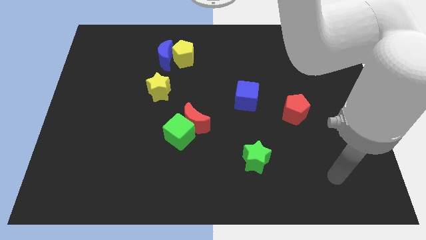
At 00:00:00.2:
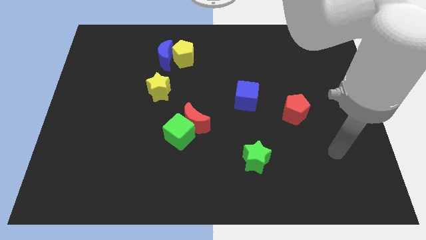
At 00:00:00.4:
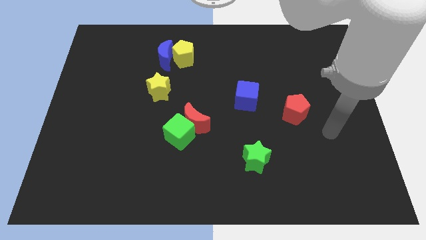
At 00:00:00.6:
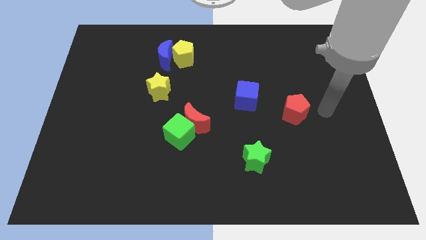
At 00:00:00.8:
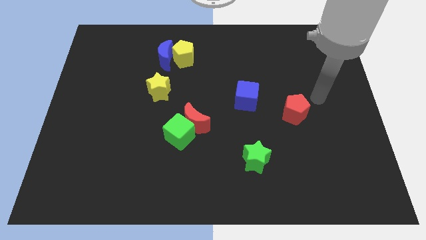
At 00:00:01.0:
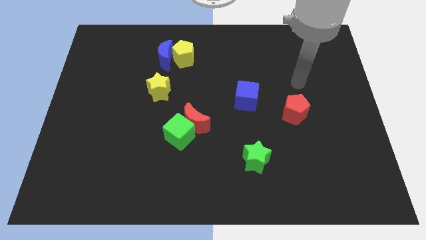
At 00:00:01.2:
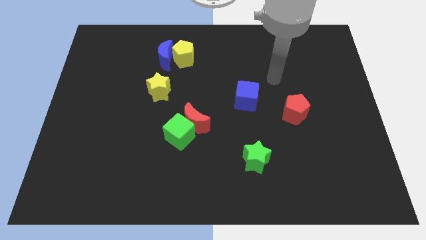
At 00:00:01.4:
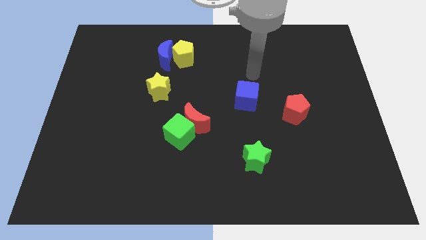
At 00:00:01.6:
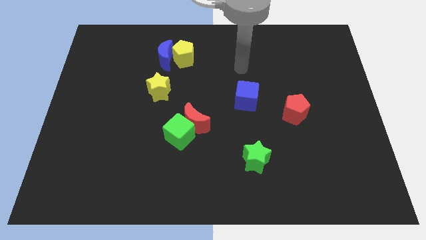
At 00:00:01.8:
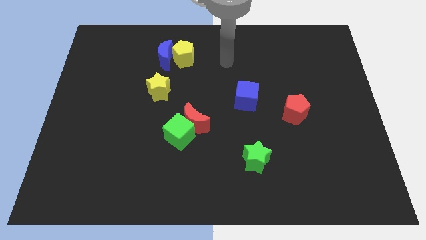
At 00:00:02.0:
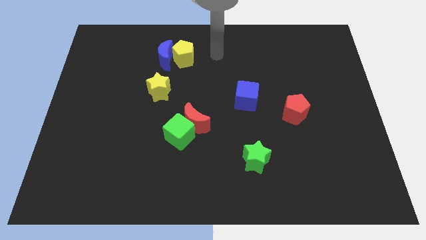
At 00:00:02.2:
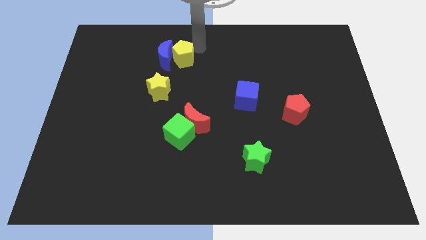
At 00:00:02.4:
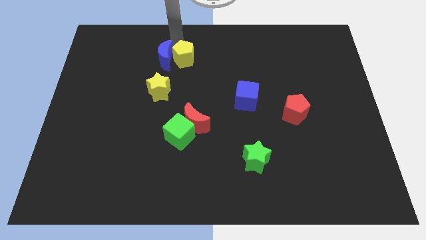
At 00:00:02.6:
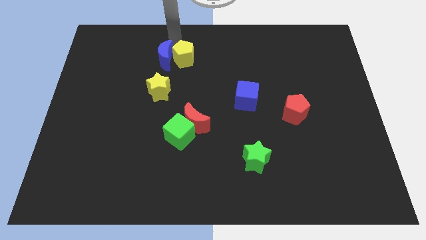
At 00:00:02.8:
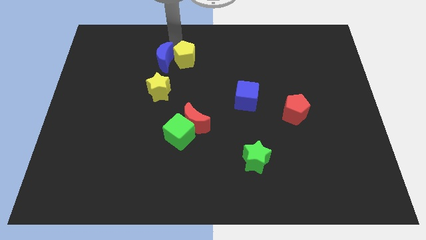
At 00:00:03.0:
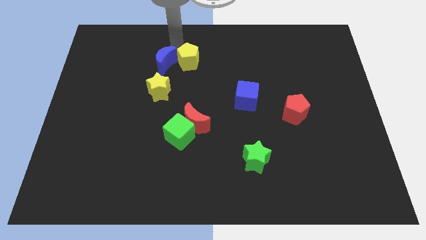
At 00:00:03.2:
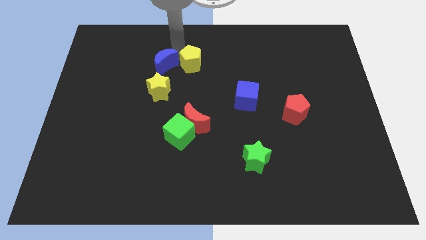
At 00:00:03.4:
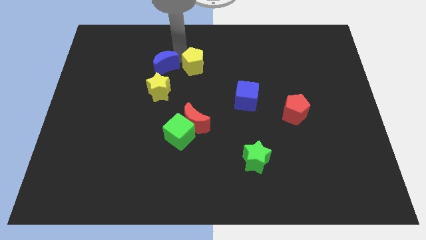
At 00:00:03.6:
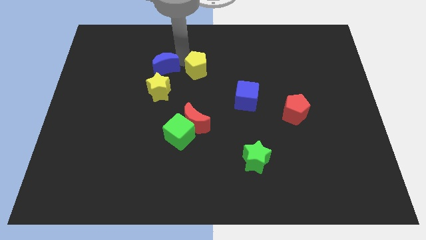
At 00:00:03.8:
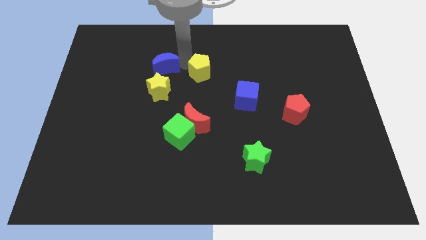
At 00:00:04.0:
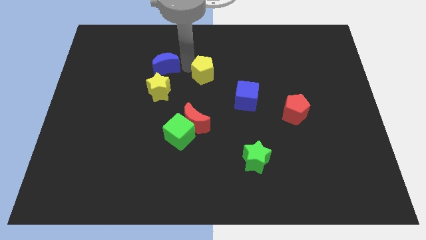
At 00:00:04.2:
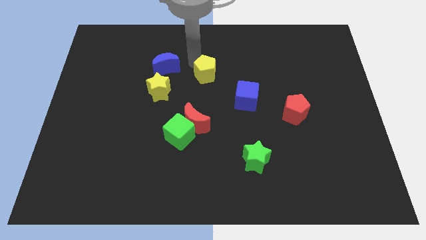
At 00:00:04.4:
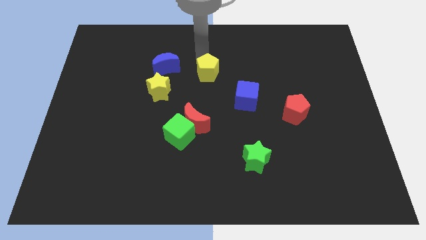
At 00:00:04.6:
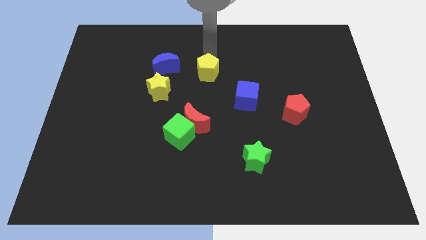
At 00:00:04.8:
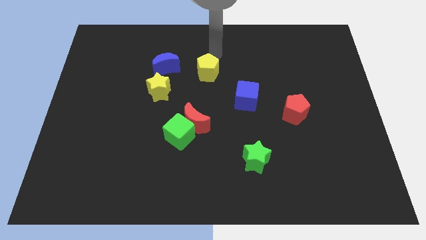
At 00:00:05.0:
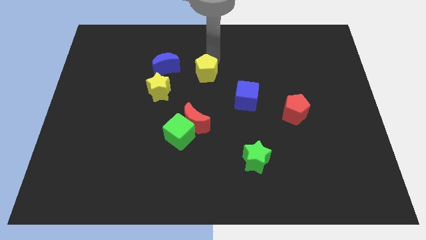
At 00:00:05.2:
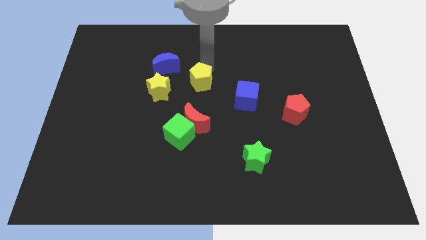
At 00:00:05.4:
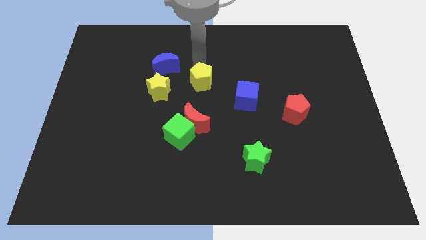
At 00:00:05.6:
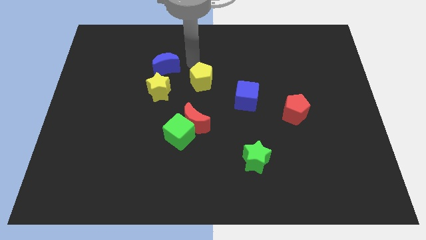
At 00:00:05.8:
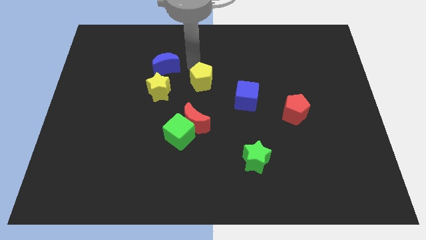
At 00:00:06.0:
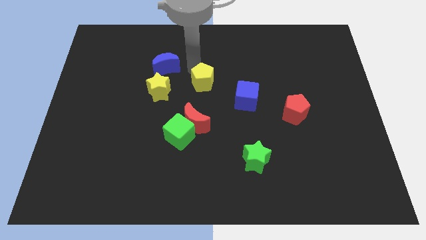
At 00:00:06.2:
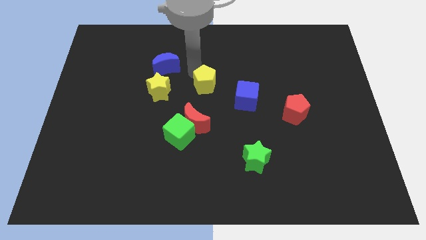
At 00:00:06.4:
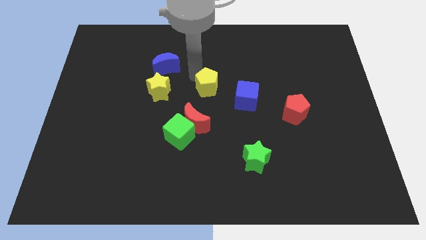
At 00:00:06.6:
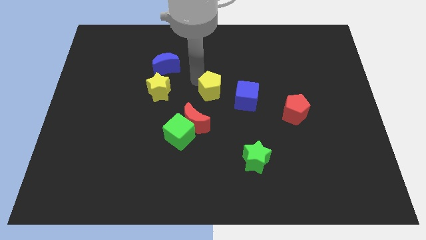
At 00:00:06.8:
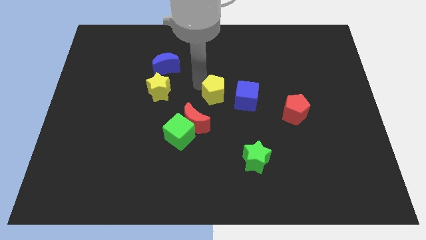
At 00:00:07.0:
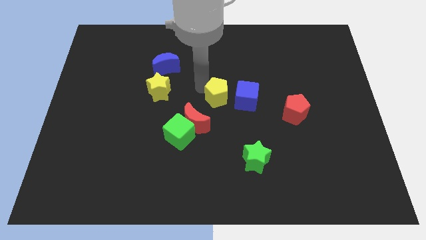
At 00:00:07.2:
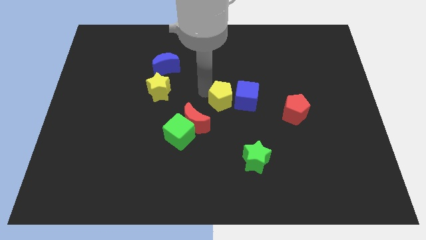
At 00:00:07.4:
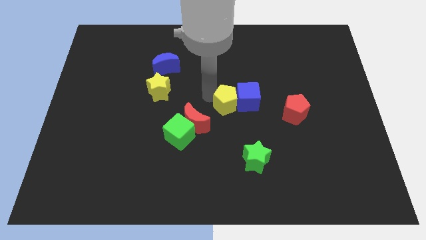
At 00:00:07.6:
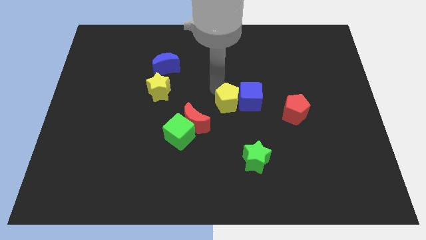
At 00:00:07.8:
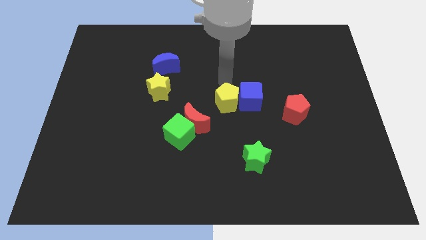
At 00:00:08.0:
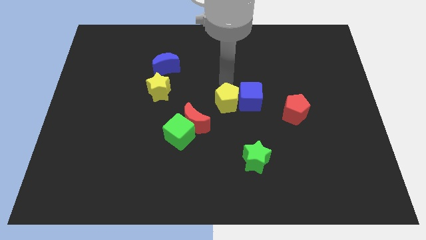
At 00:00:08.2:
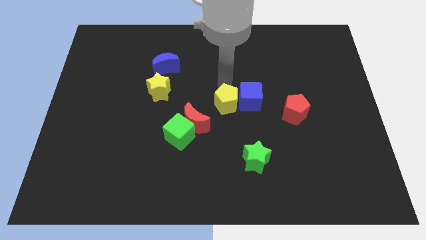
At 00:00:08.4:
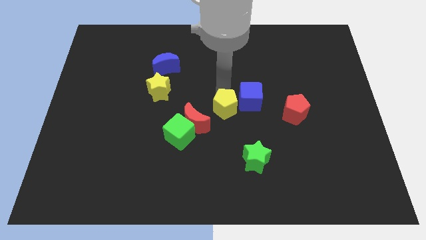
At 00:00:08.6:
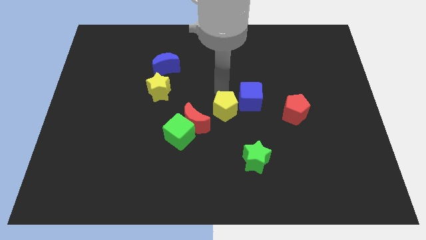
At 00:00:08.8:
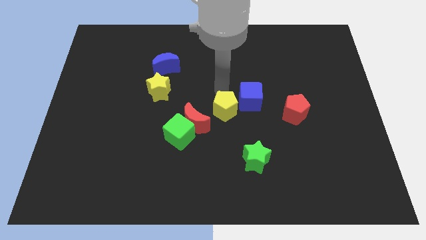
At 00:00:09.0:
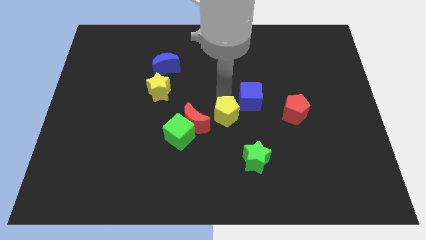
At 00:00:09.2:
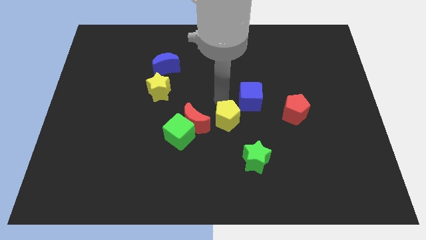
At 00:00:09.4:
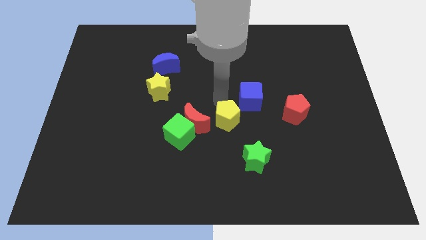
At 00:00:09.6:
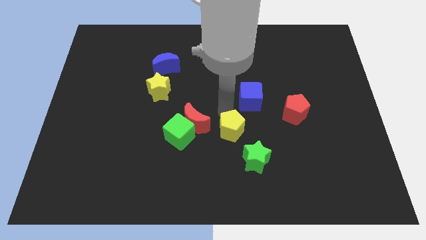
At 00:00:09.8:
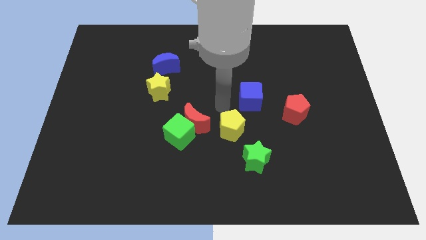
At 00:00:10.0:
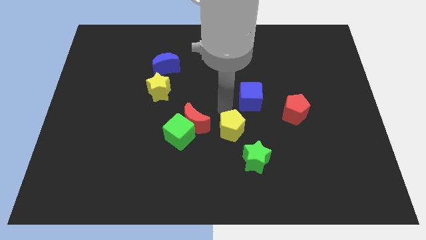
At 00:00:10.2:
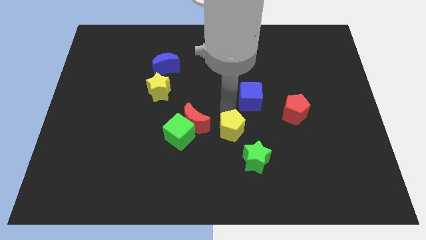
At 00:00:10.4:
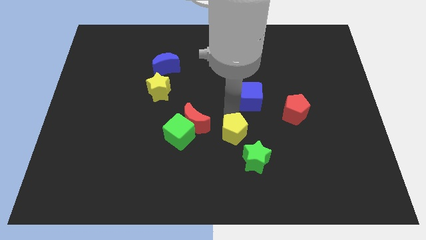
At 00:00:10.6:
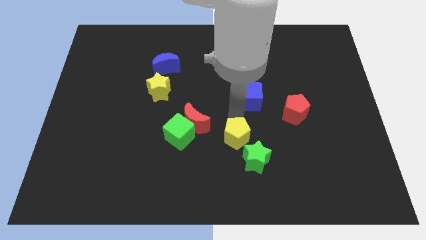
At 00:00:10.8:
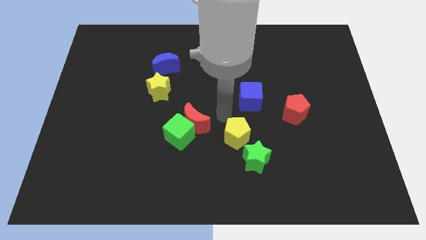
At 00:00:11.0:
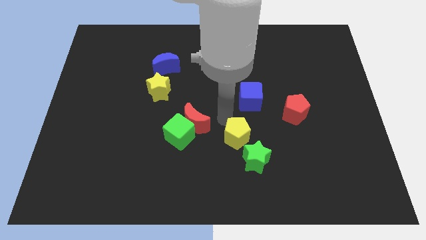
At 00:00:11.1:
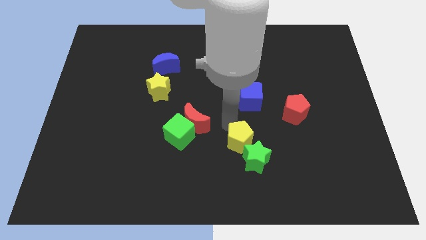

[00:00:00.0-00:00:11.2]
move the yellow pentagon close to the green star

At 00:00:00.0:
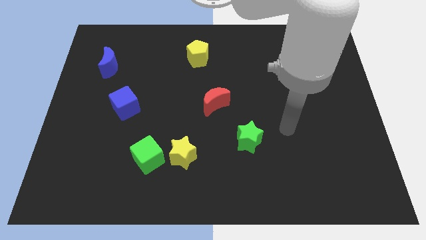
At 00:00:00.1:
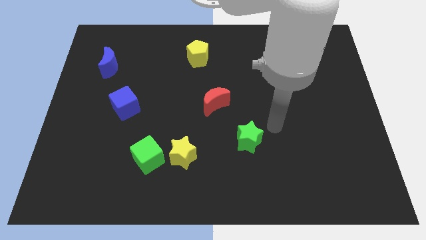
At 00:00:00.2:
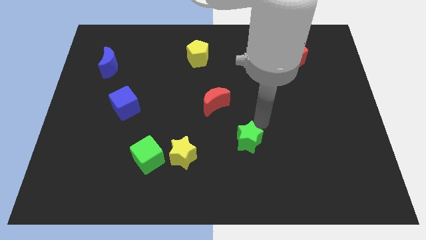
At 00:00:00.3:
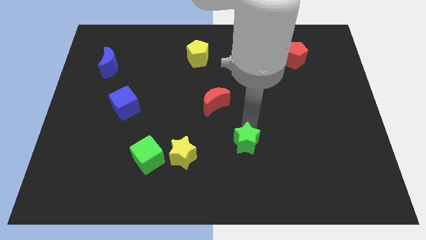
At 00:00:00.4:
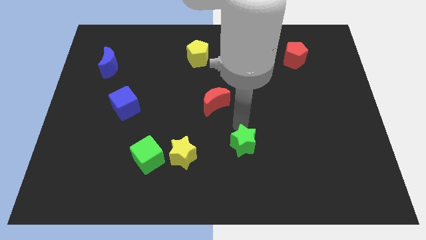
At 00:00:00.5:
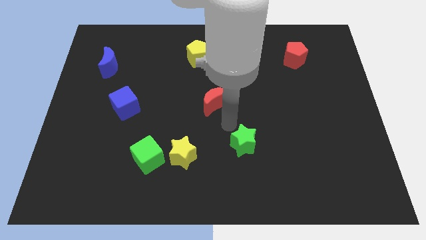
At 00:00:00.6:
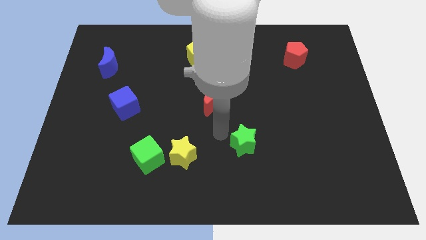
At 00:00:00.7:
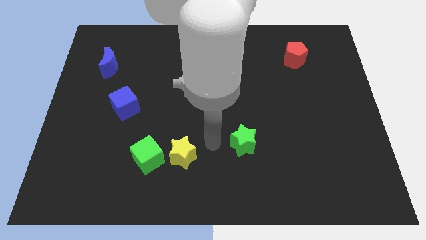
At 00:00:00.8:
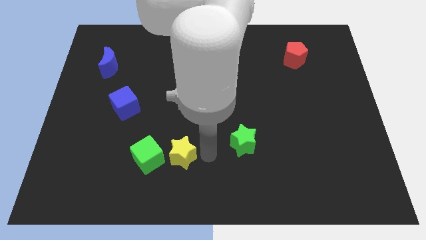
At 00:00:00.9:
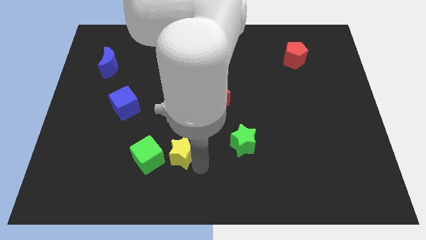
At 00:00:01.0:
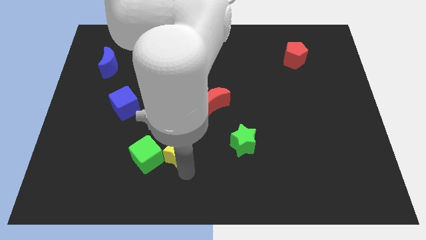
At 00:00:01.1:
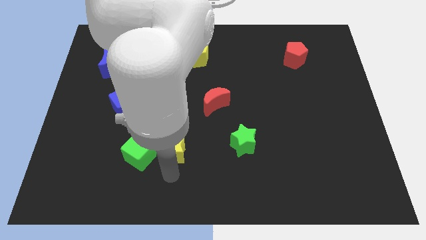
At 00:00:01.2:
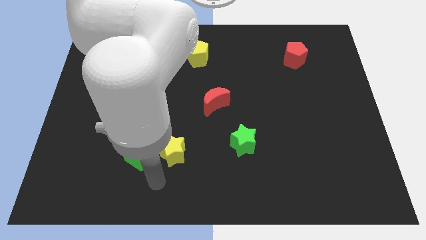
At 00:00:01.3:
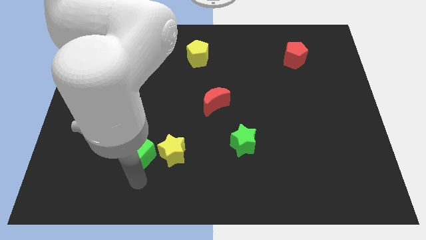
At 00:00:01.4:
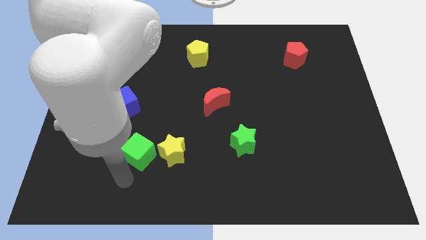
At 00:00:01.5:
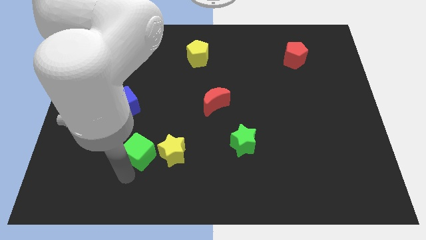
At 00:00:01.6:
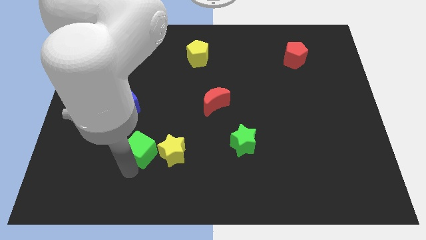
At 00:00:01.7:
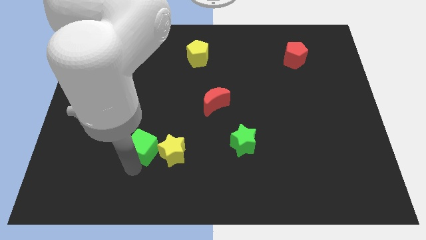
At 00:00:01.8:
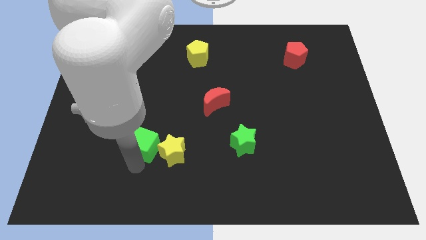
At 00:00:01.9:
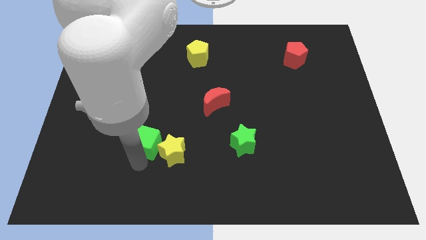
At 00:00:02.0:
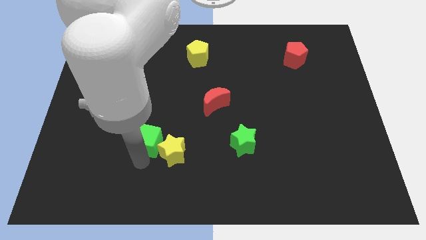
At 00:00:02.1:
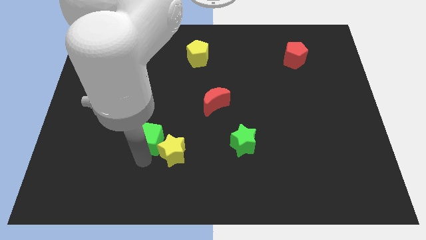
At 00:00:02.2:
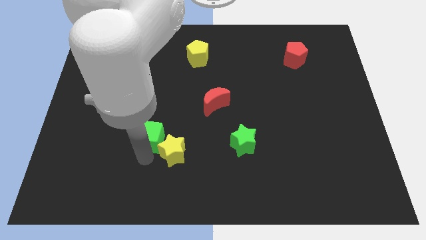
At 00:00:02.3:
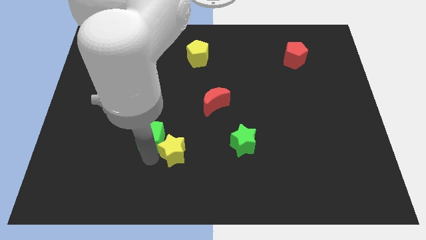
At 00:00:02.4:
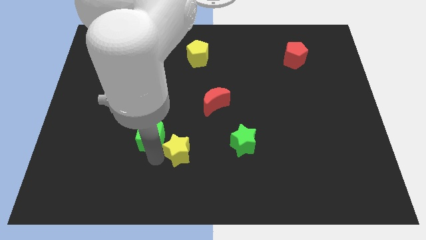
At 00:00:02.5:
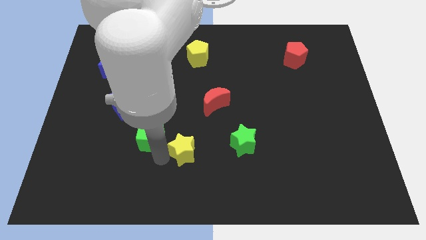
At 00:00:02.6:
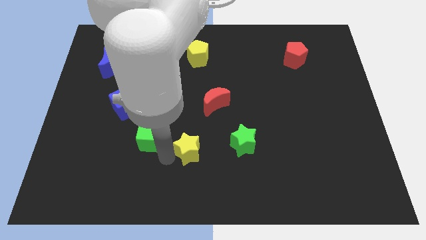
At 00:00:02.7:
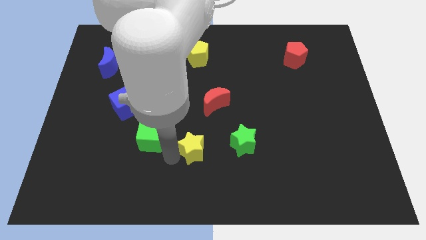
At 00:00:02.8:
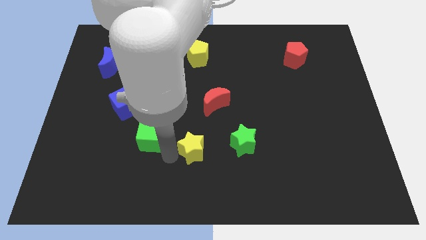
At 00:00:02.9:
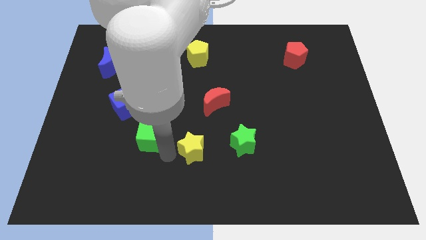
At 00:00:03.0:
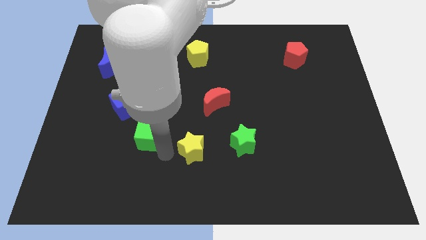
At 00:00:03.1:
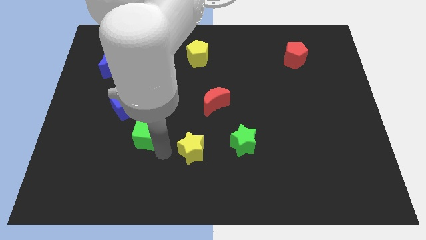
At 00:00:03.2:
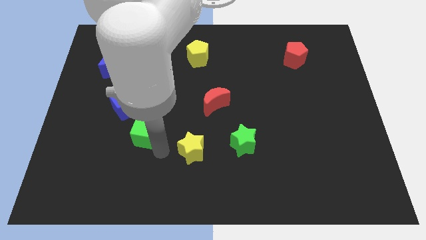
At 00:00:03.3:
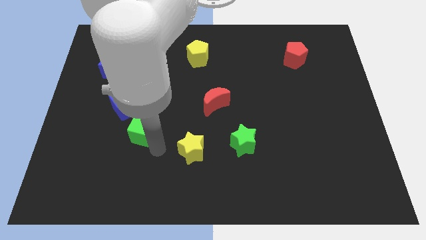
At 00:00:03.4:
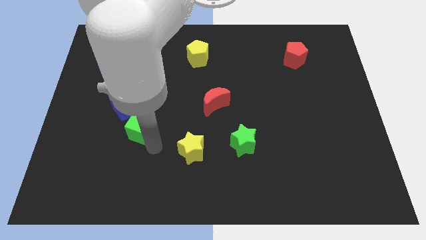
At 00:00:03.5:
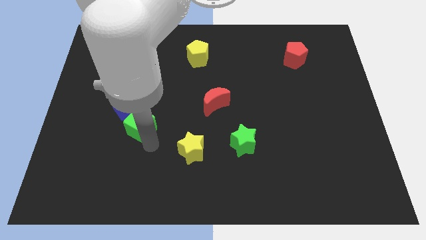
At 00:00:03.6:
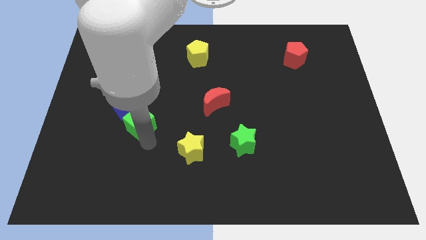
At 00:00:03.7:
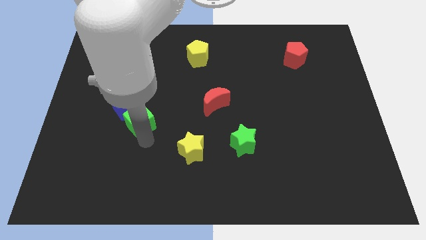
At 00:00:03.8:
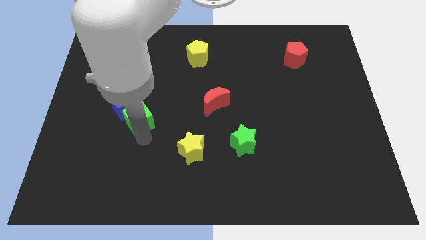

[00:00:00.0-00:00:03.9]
push the green cube next to the blue cube
